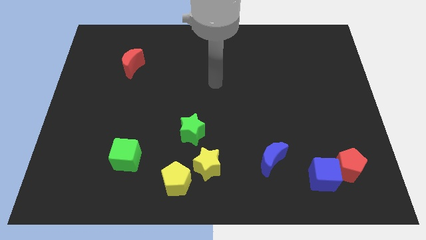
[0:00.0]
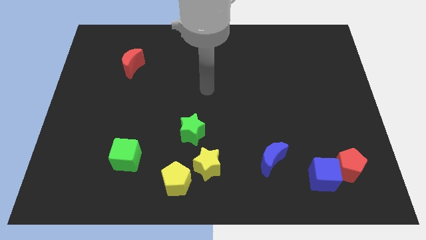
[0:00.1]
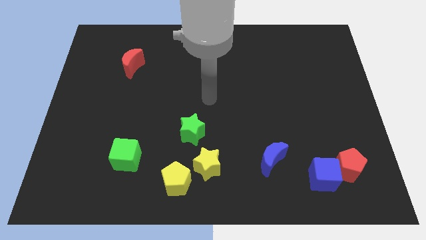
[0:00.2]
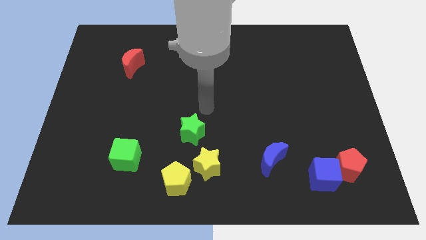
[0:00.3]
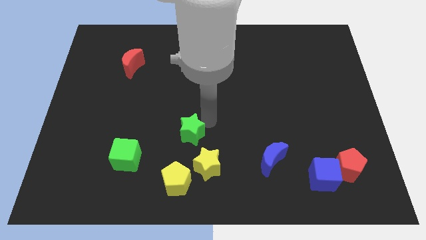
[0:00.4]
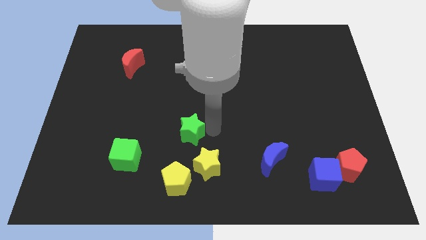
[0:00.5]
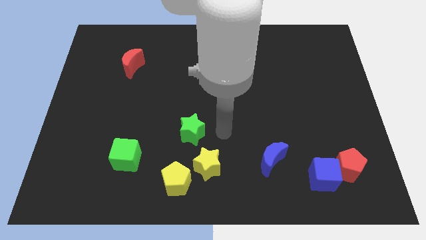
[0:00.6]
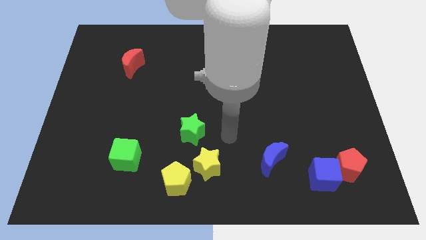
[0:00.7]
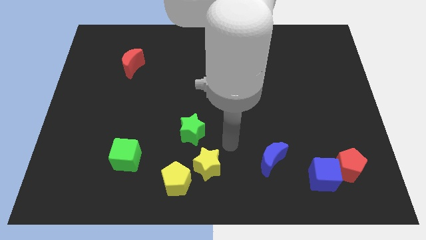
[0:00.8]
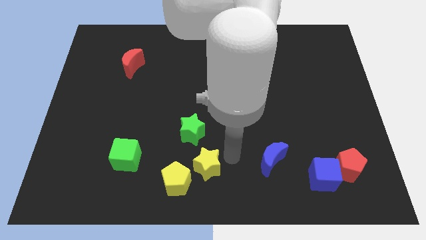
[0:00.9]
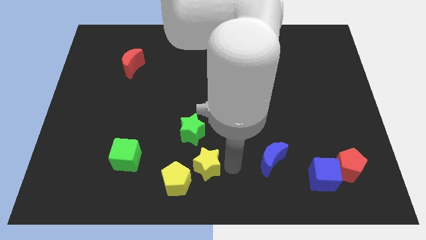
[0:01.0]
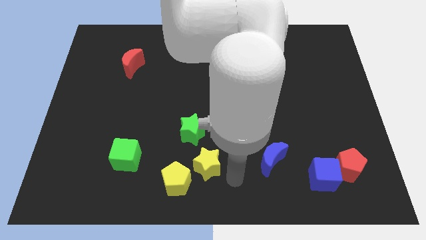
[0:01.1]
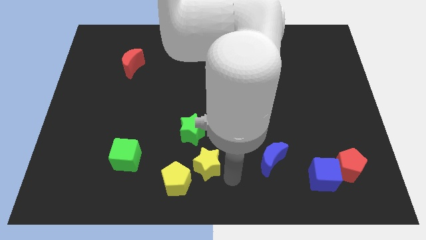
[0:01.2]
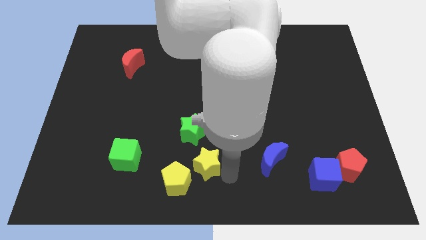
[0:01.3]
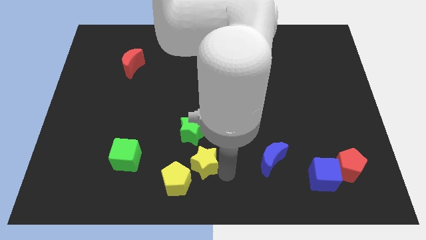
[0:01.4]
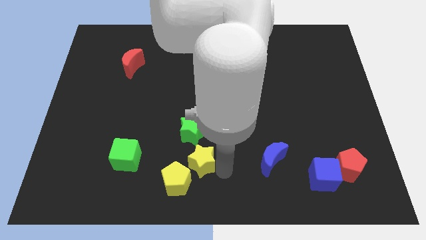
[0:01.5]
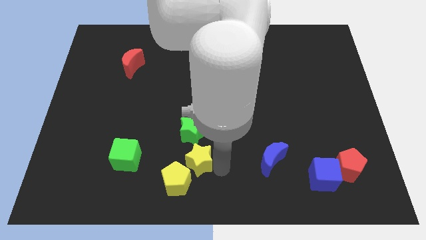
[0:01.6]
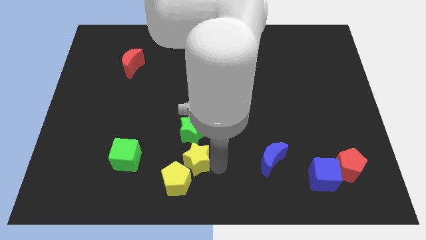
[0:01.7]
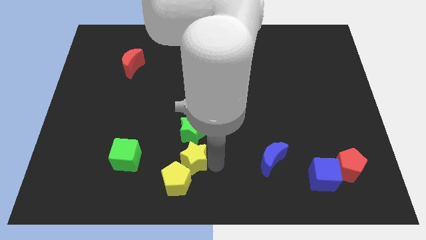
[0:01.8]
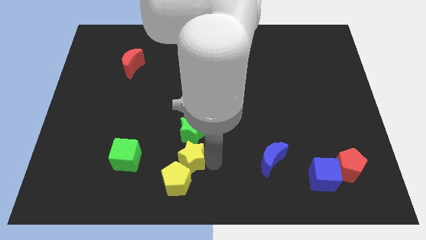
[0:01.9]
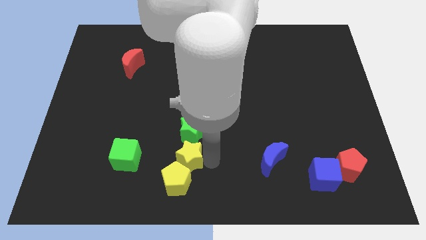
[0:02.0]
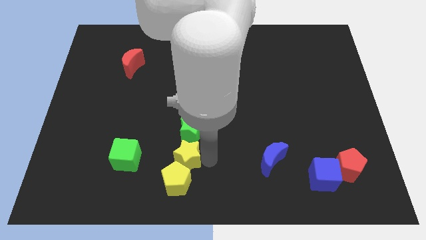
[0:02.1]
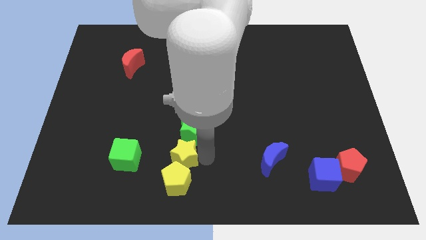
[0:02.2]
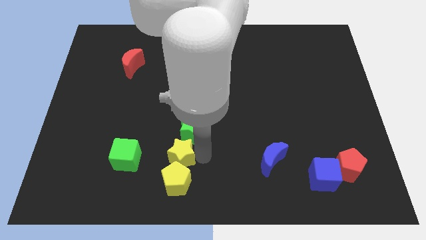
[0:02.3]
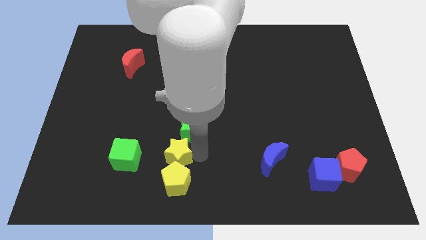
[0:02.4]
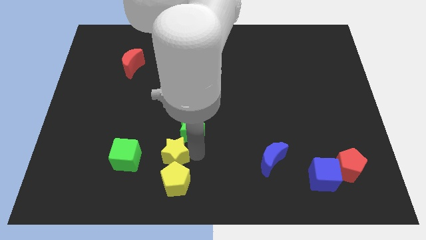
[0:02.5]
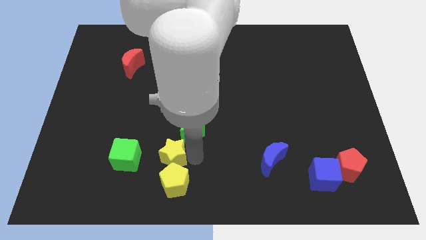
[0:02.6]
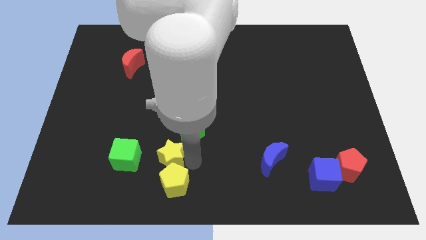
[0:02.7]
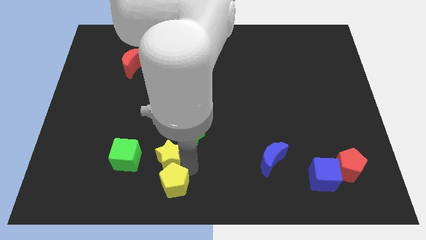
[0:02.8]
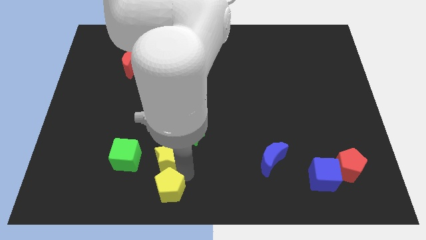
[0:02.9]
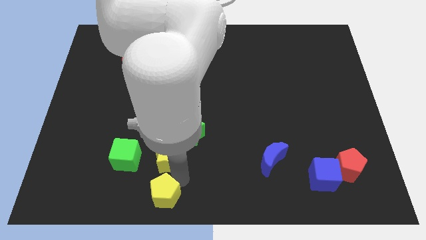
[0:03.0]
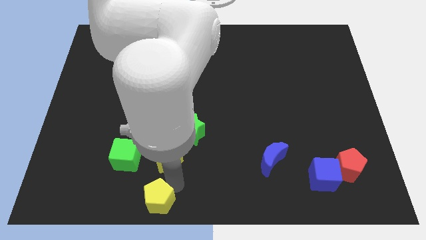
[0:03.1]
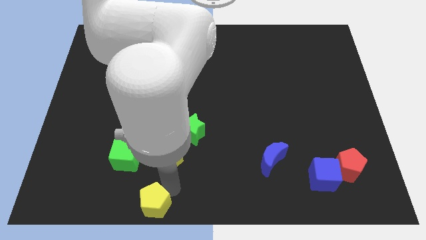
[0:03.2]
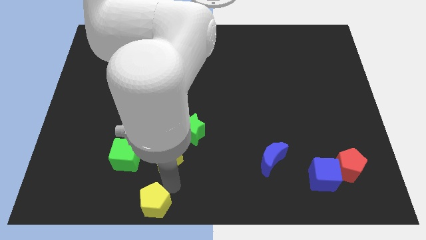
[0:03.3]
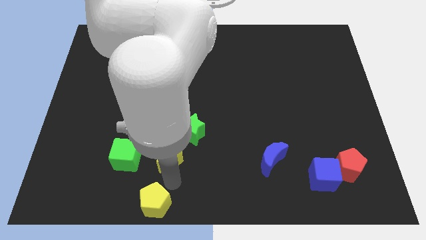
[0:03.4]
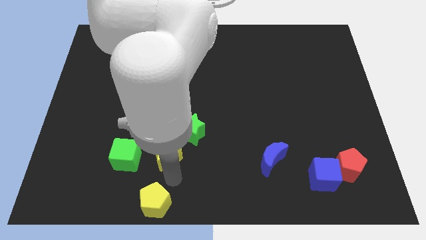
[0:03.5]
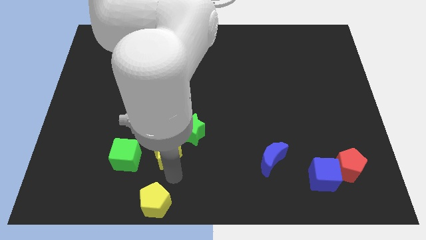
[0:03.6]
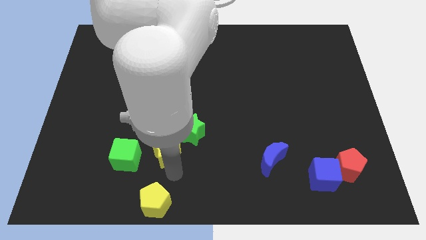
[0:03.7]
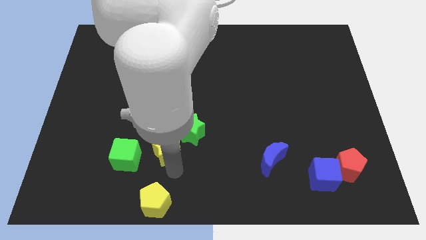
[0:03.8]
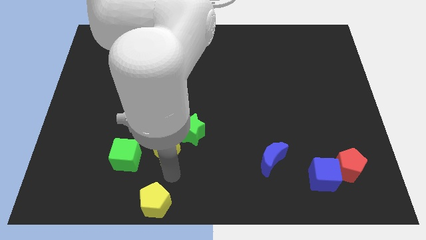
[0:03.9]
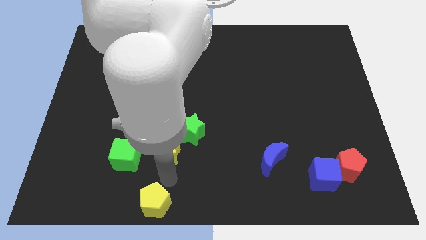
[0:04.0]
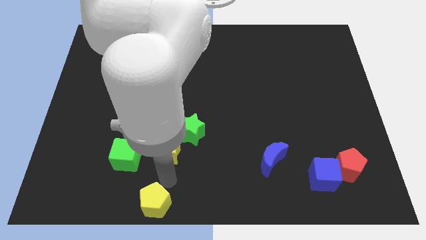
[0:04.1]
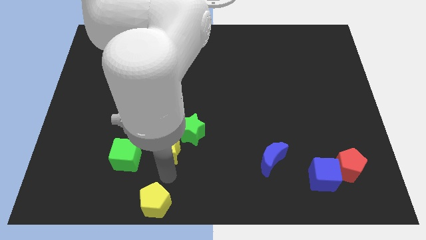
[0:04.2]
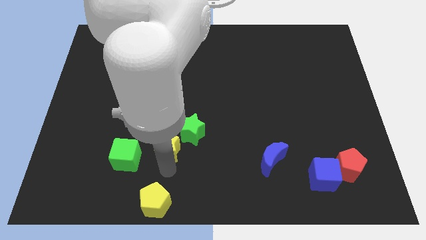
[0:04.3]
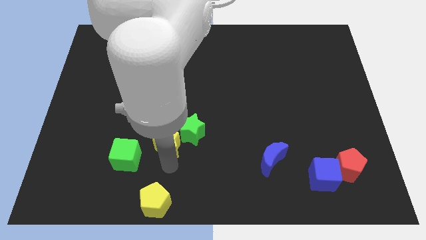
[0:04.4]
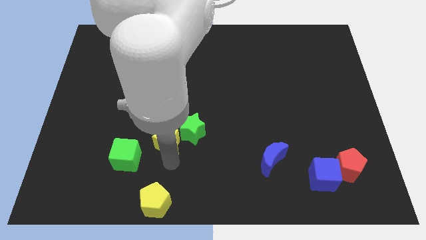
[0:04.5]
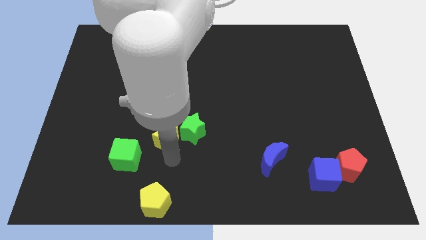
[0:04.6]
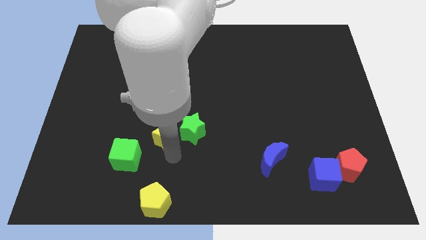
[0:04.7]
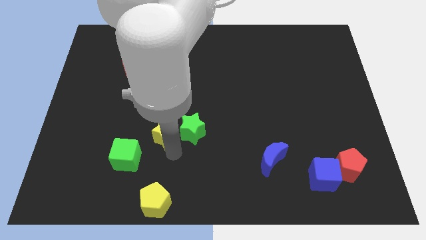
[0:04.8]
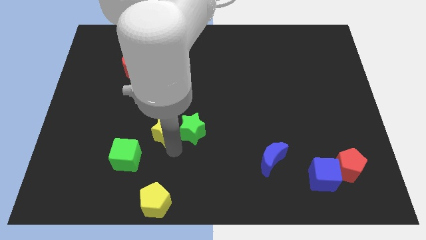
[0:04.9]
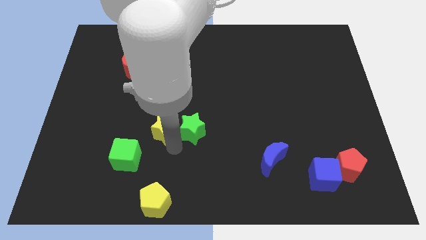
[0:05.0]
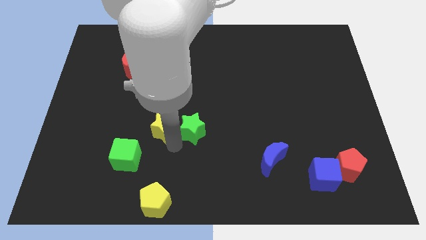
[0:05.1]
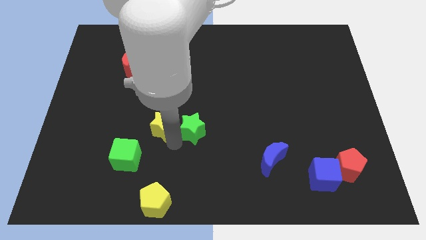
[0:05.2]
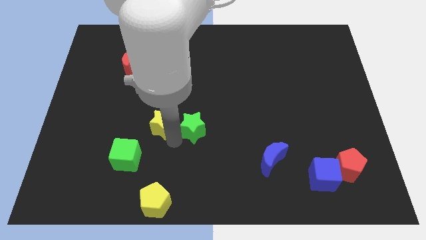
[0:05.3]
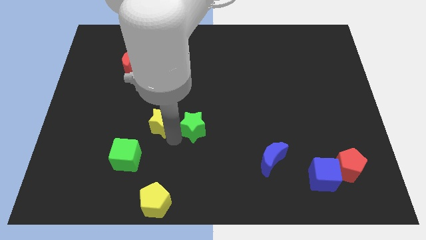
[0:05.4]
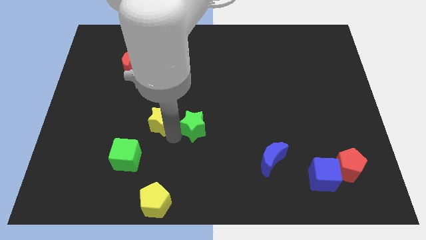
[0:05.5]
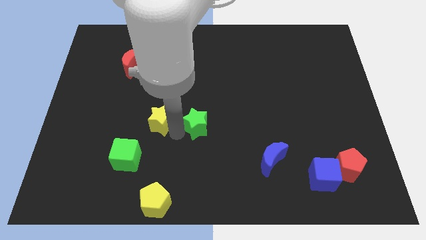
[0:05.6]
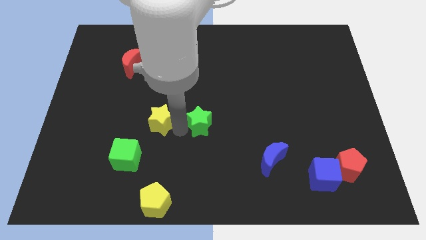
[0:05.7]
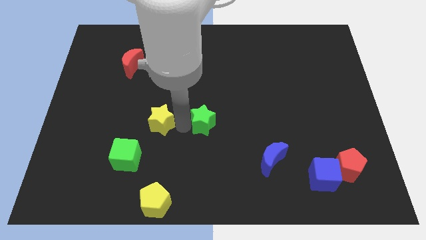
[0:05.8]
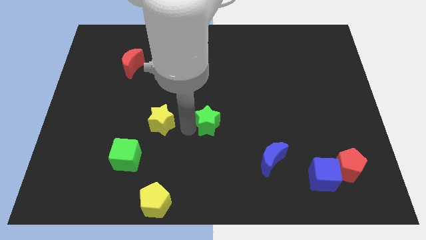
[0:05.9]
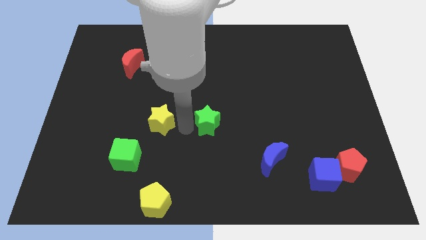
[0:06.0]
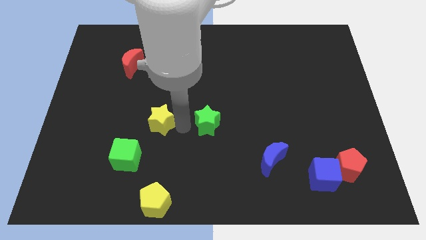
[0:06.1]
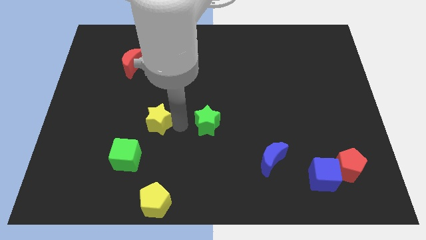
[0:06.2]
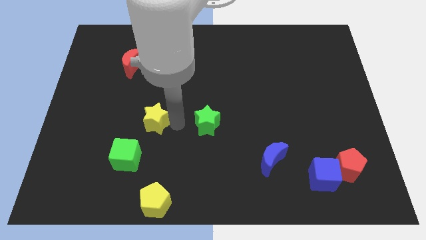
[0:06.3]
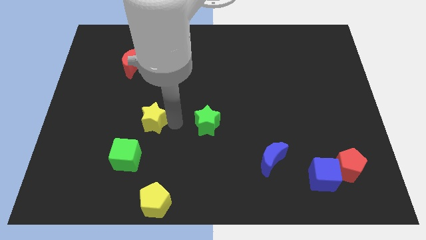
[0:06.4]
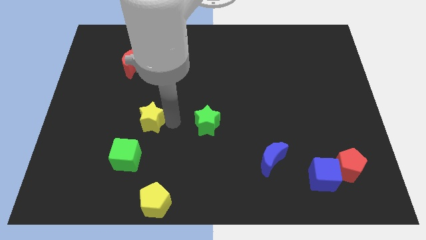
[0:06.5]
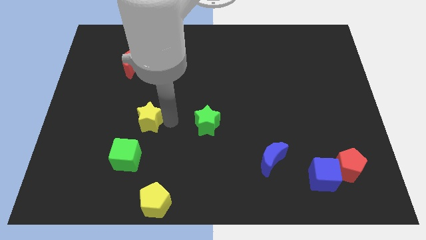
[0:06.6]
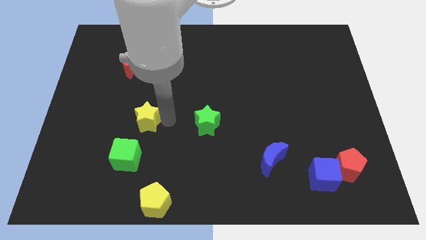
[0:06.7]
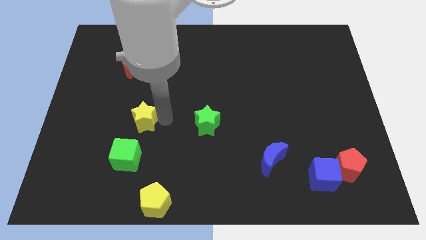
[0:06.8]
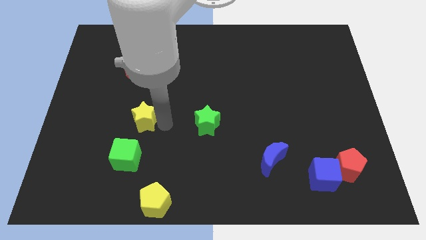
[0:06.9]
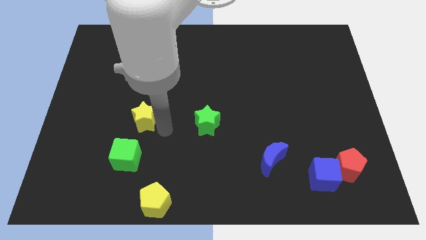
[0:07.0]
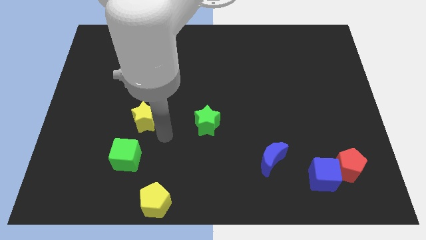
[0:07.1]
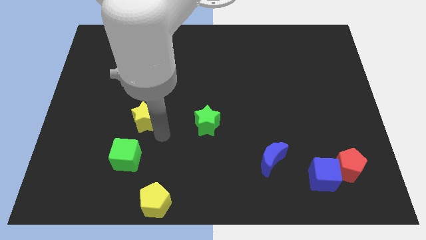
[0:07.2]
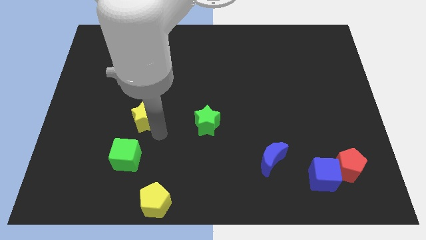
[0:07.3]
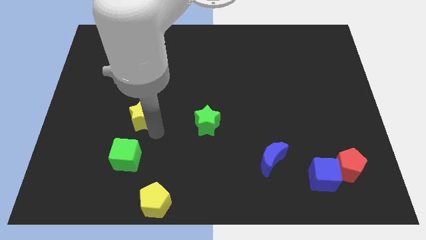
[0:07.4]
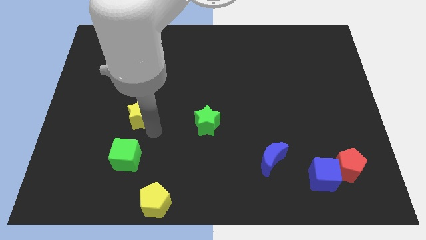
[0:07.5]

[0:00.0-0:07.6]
move the yellow star up and left

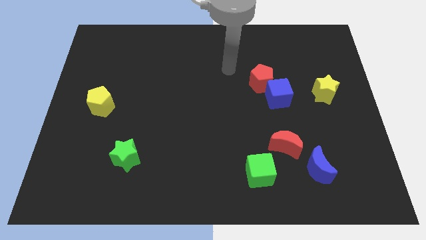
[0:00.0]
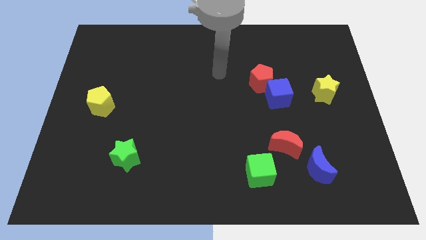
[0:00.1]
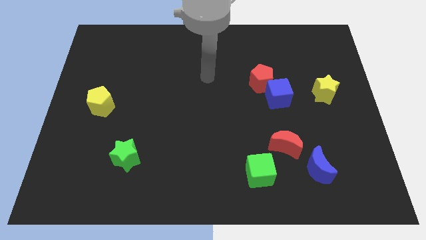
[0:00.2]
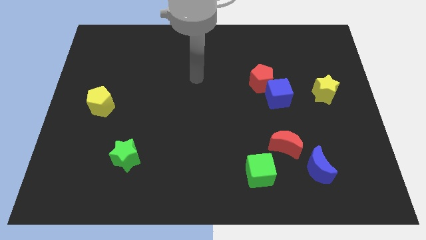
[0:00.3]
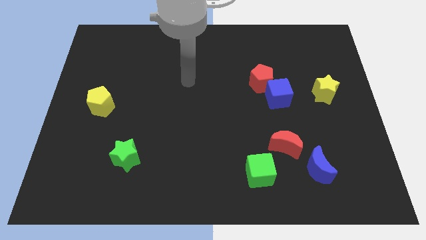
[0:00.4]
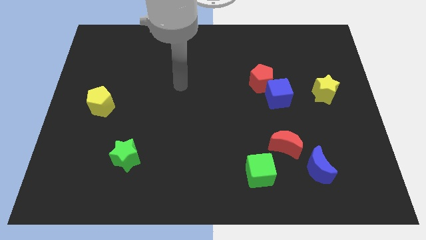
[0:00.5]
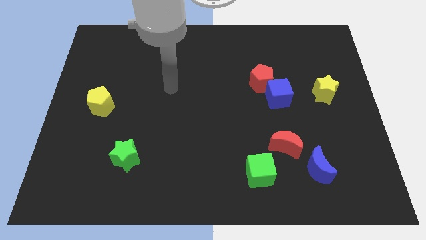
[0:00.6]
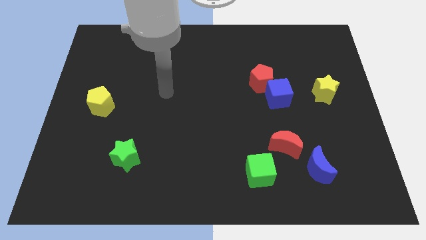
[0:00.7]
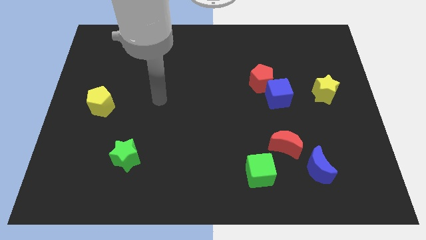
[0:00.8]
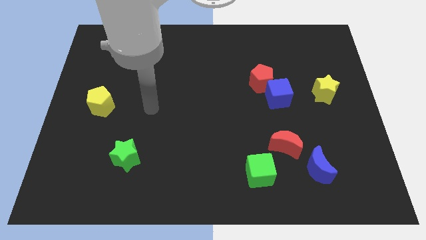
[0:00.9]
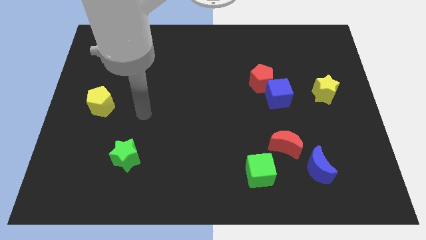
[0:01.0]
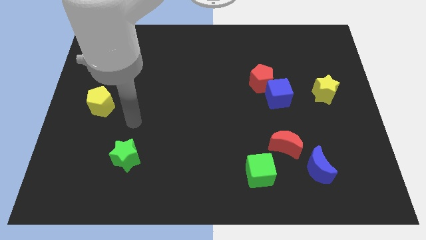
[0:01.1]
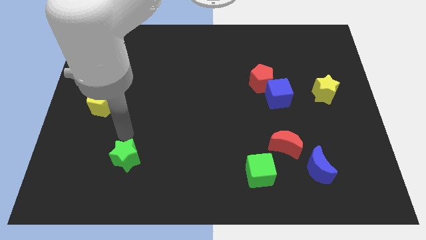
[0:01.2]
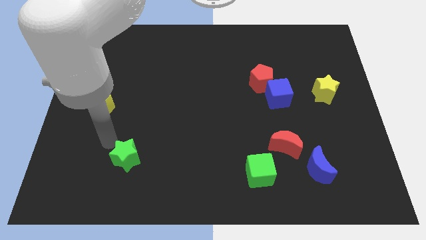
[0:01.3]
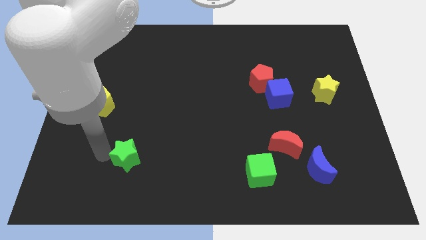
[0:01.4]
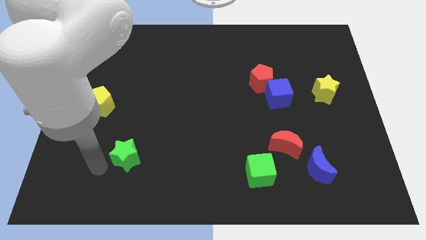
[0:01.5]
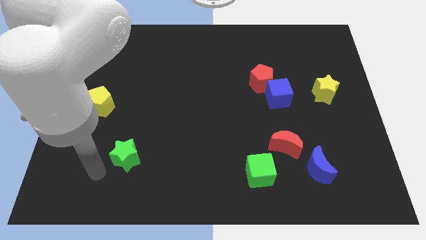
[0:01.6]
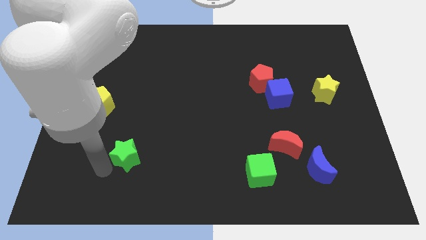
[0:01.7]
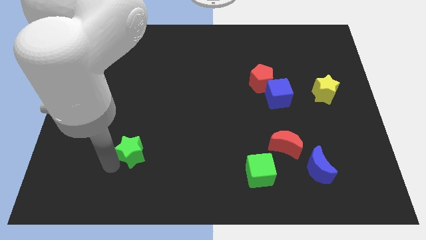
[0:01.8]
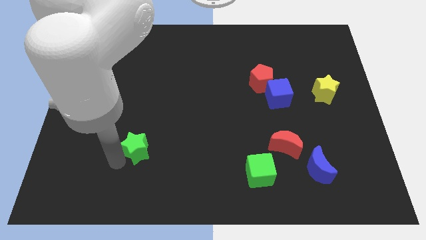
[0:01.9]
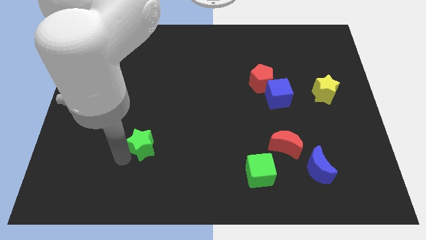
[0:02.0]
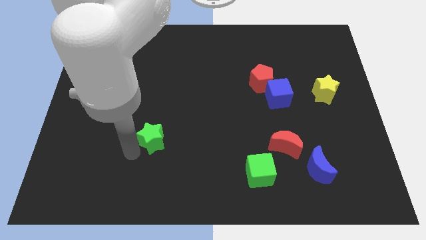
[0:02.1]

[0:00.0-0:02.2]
slightly push the green star diagonally upwards and to the right
